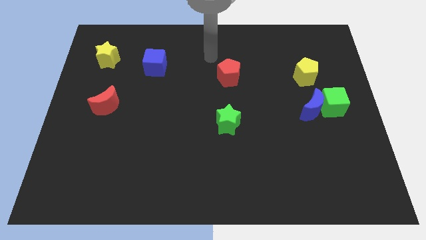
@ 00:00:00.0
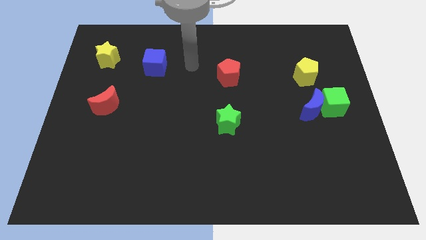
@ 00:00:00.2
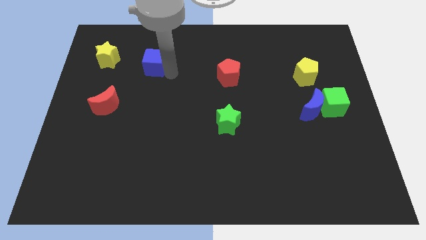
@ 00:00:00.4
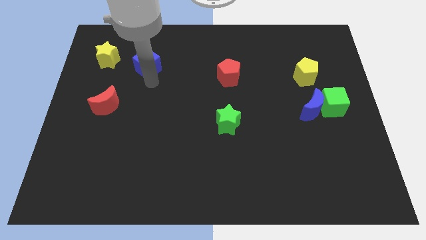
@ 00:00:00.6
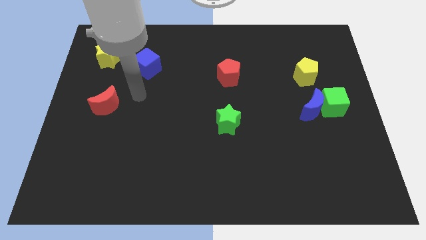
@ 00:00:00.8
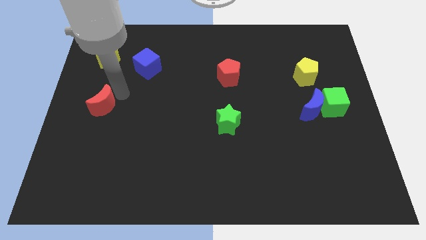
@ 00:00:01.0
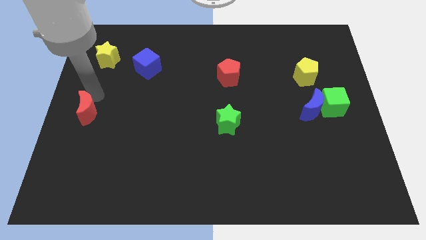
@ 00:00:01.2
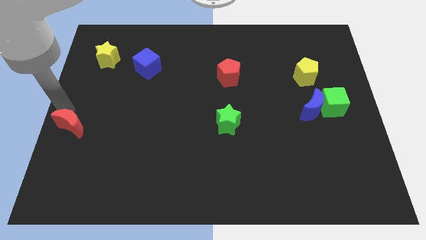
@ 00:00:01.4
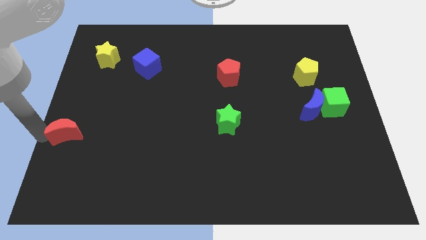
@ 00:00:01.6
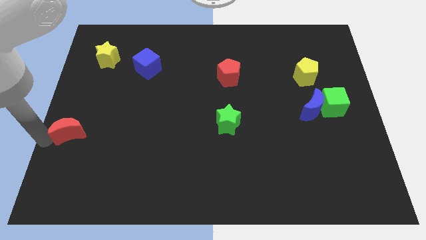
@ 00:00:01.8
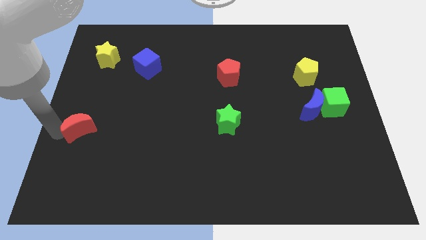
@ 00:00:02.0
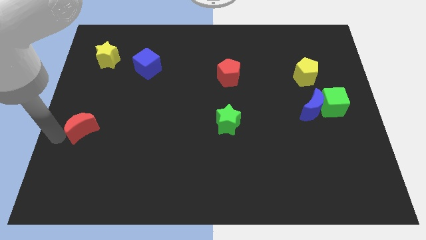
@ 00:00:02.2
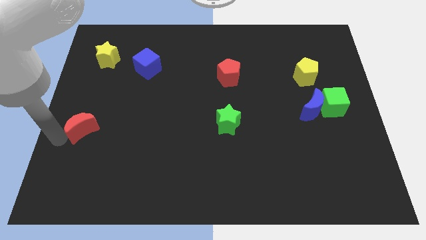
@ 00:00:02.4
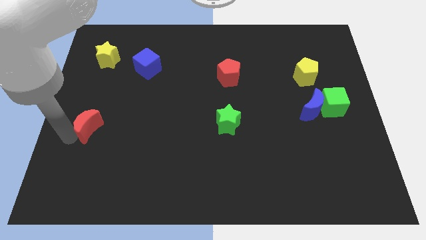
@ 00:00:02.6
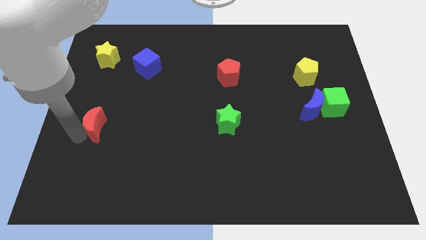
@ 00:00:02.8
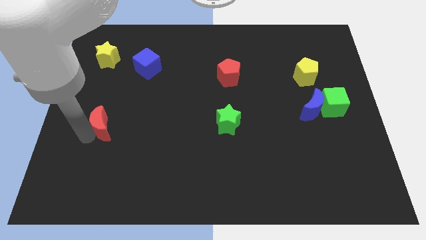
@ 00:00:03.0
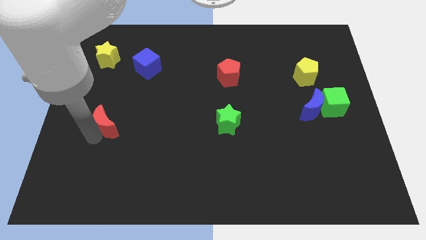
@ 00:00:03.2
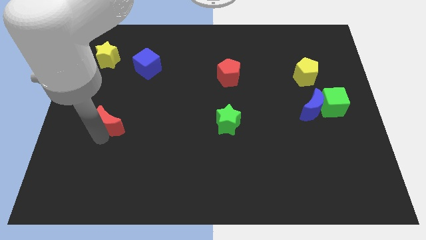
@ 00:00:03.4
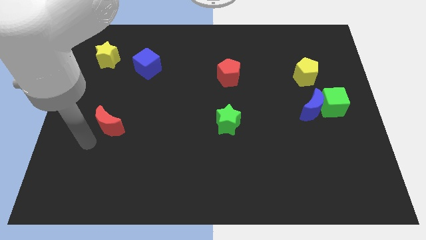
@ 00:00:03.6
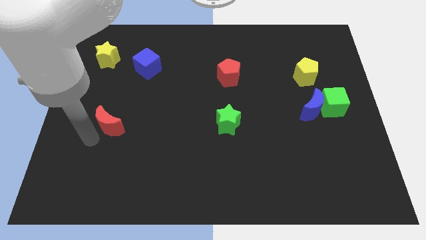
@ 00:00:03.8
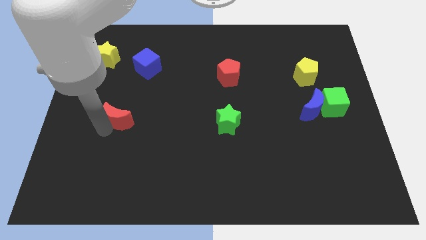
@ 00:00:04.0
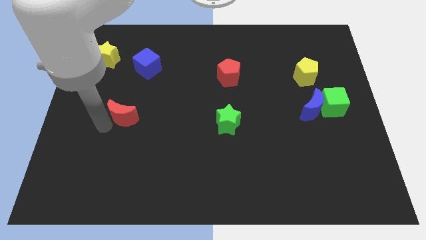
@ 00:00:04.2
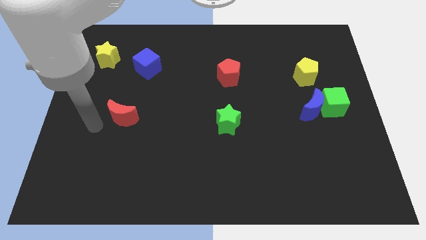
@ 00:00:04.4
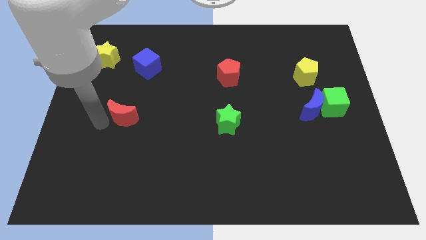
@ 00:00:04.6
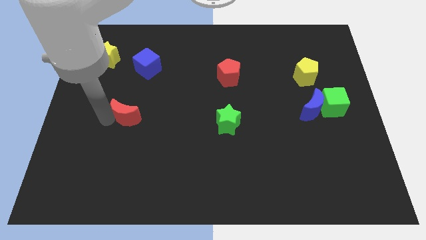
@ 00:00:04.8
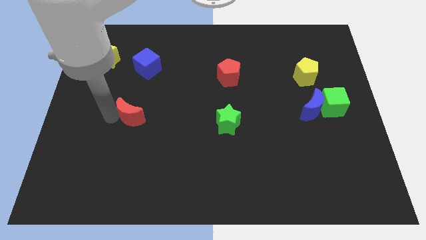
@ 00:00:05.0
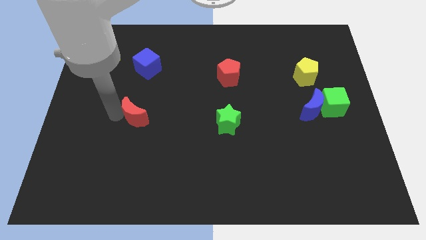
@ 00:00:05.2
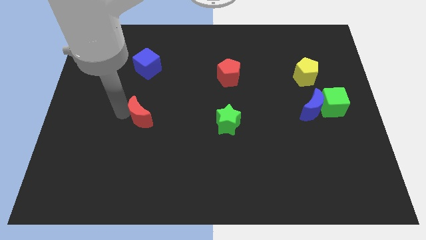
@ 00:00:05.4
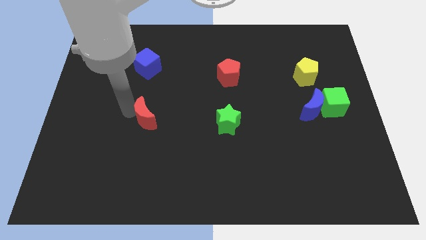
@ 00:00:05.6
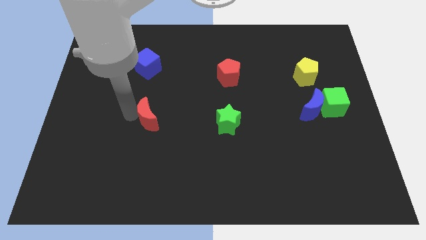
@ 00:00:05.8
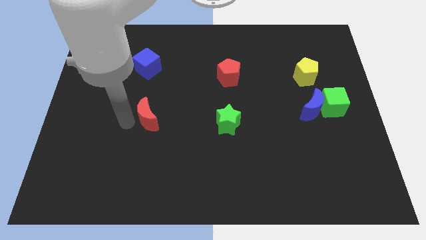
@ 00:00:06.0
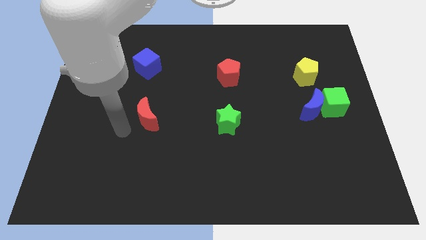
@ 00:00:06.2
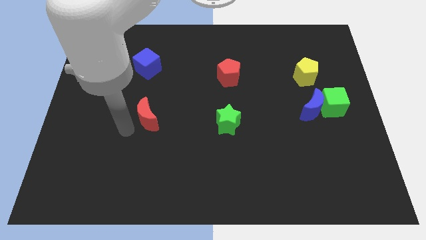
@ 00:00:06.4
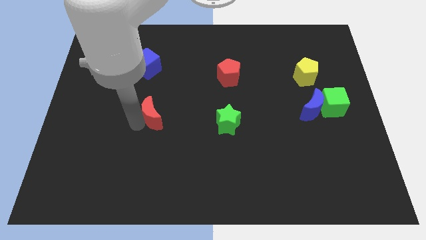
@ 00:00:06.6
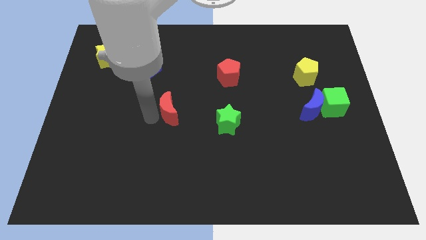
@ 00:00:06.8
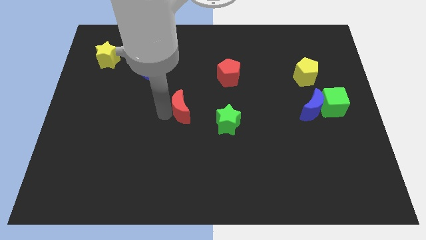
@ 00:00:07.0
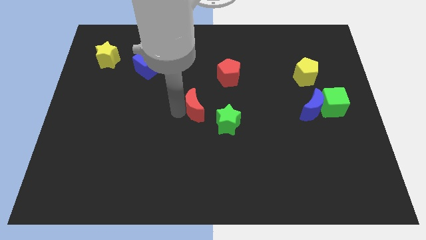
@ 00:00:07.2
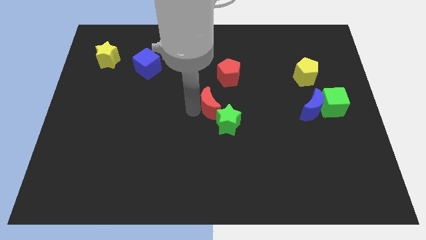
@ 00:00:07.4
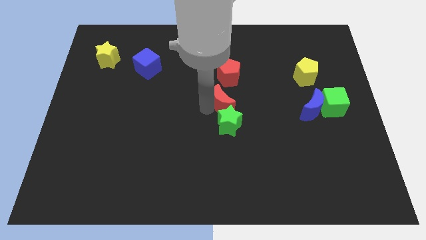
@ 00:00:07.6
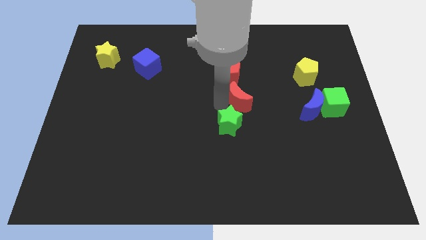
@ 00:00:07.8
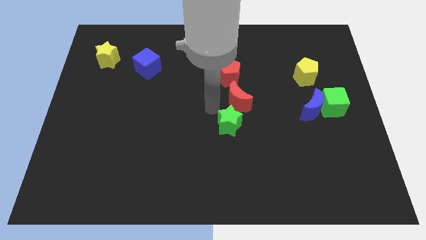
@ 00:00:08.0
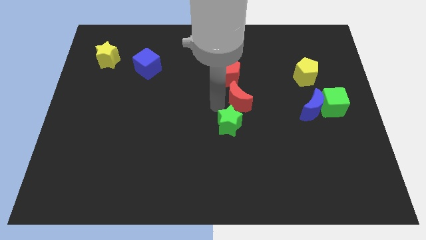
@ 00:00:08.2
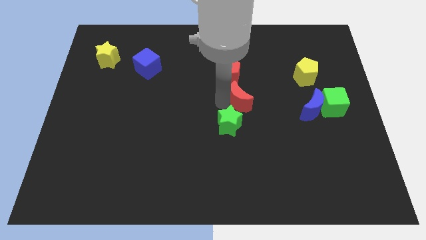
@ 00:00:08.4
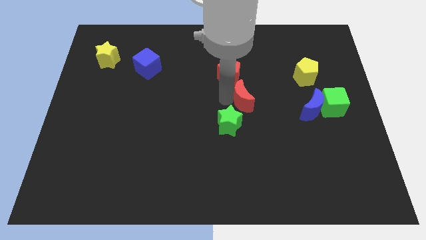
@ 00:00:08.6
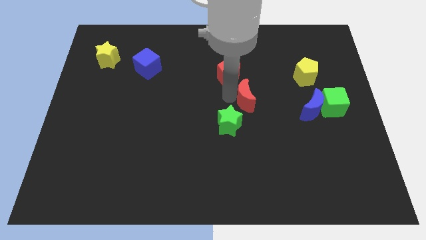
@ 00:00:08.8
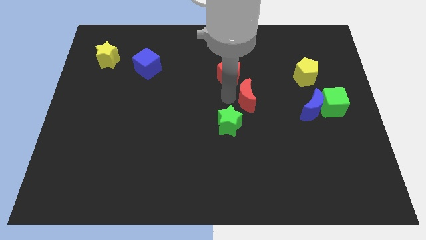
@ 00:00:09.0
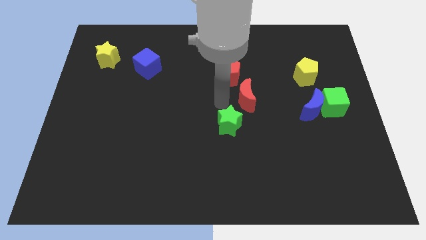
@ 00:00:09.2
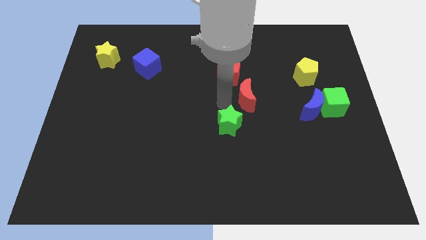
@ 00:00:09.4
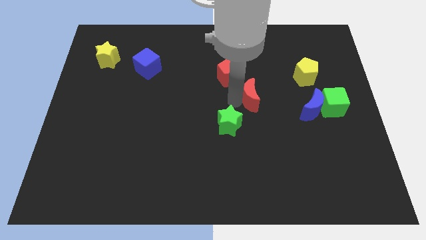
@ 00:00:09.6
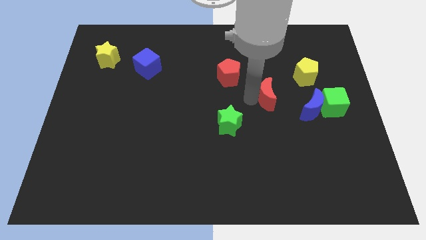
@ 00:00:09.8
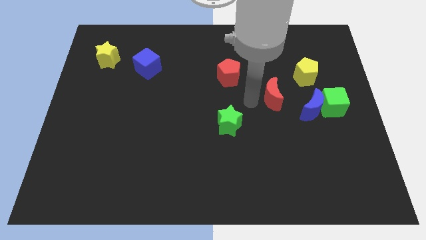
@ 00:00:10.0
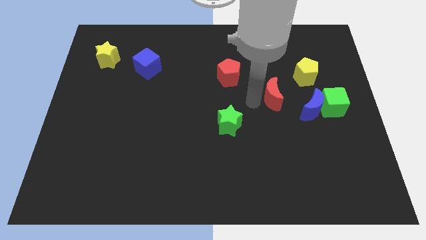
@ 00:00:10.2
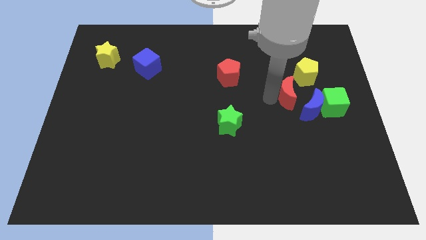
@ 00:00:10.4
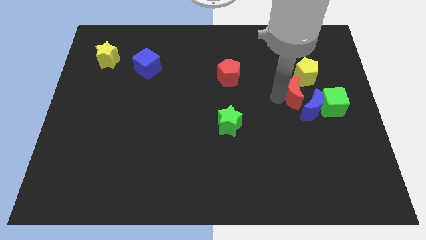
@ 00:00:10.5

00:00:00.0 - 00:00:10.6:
put the red moon to the top left side of the green cube

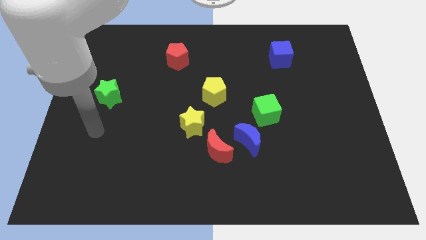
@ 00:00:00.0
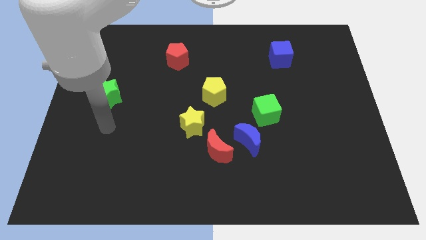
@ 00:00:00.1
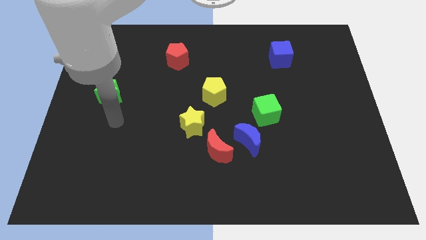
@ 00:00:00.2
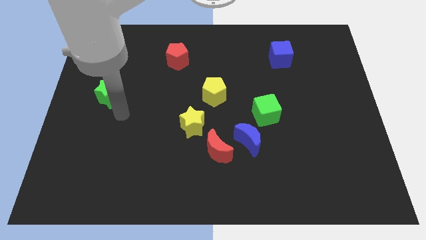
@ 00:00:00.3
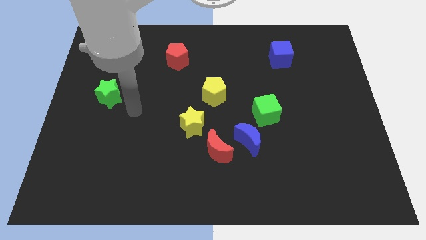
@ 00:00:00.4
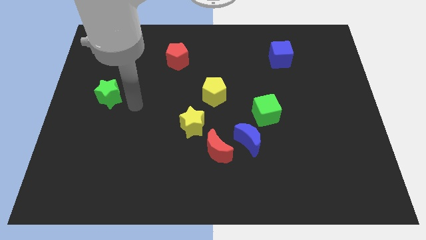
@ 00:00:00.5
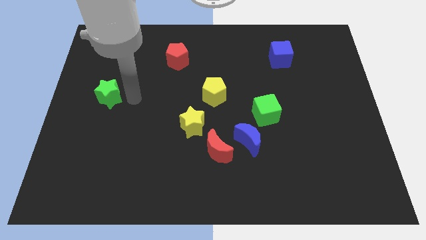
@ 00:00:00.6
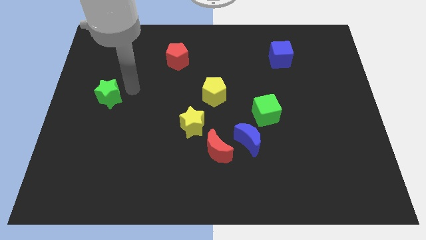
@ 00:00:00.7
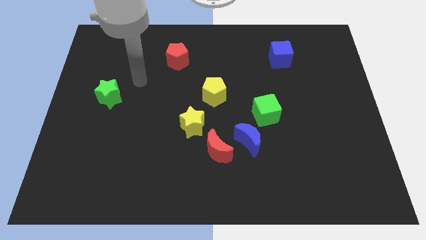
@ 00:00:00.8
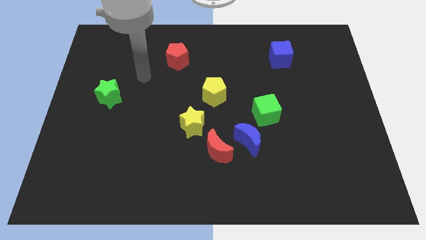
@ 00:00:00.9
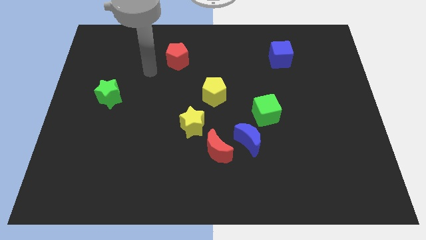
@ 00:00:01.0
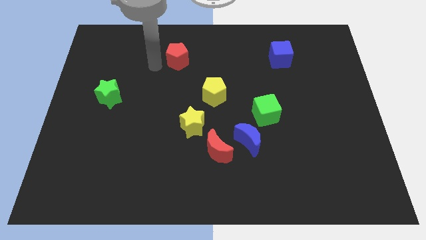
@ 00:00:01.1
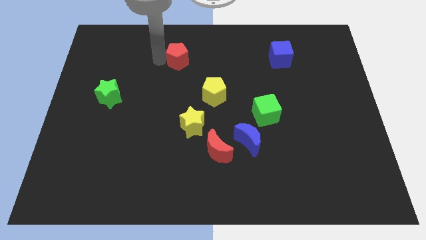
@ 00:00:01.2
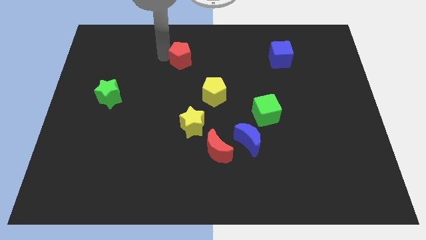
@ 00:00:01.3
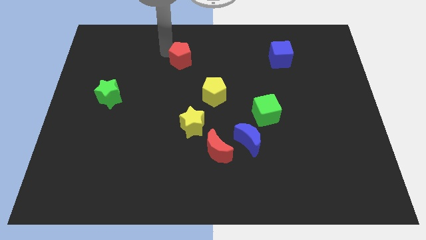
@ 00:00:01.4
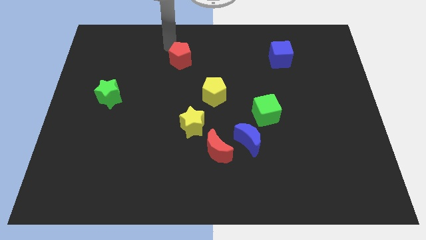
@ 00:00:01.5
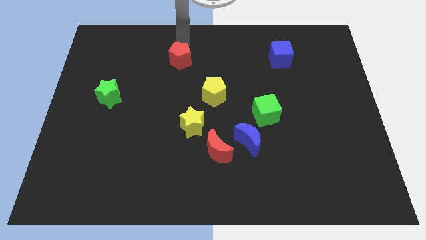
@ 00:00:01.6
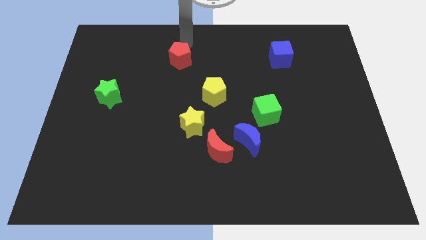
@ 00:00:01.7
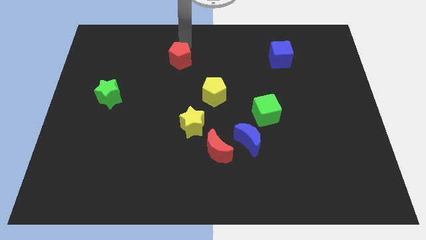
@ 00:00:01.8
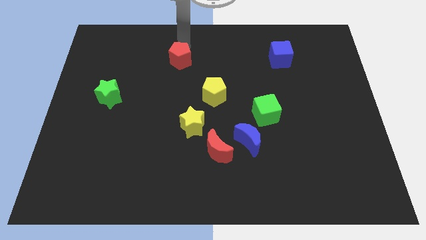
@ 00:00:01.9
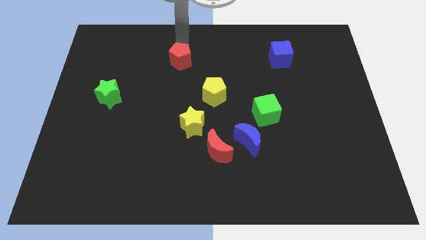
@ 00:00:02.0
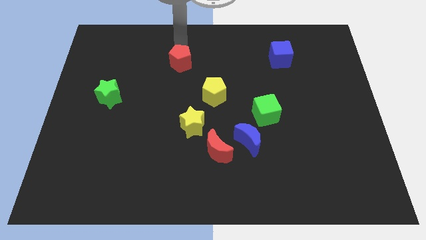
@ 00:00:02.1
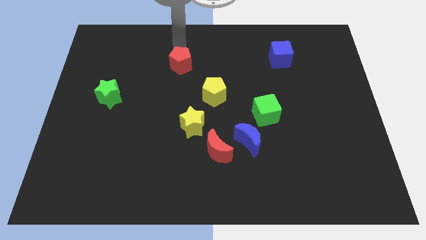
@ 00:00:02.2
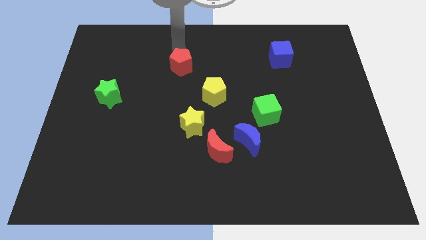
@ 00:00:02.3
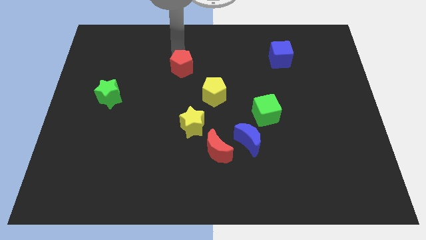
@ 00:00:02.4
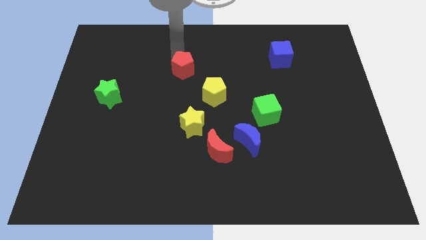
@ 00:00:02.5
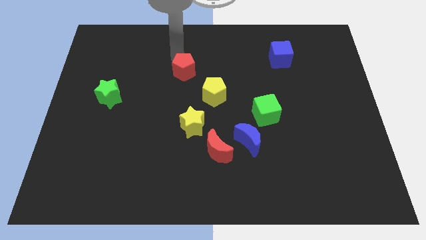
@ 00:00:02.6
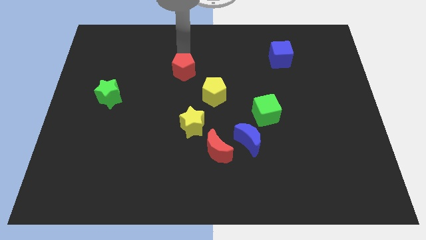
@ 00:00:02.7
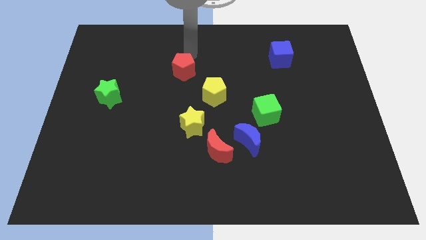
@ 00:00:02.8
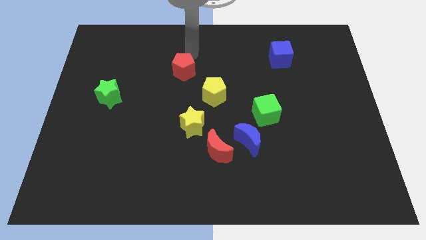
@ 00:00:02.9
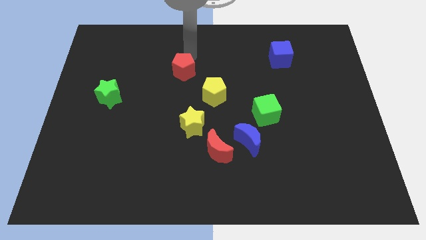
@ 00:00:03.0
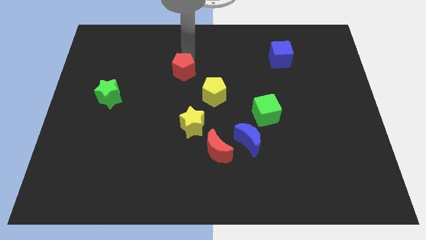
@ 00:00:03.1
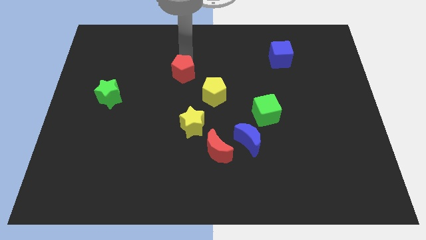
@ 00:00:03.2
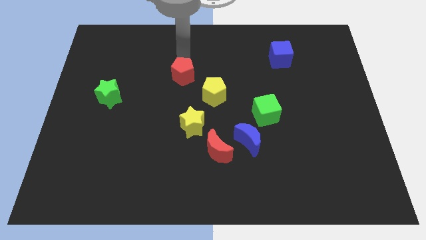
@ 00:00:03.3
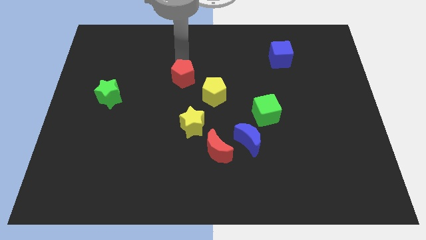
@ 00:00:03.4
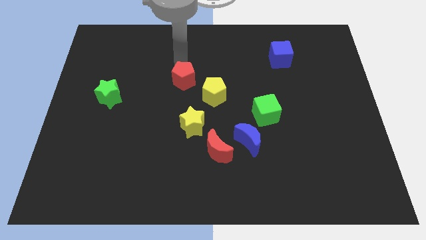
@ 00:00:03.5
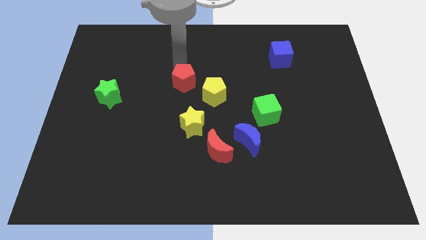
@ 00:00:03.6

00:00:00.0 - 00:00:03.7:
push the red pentagon to the left of the yellow pentagon
